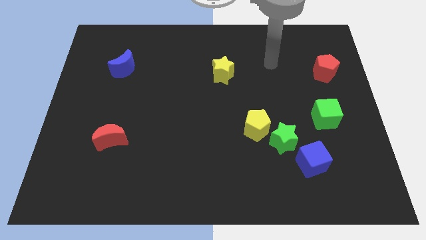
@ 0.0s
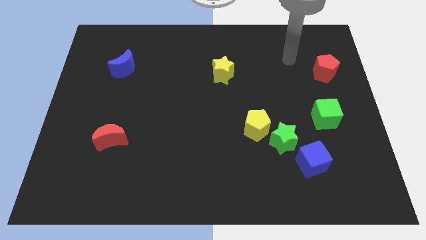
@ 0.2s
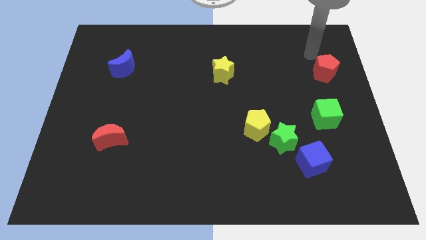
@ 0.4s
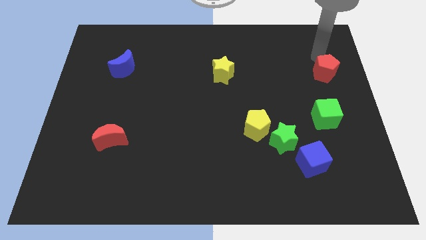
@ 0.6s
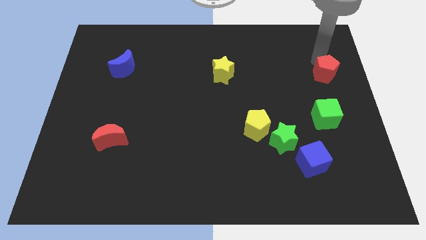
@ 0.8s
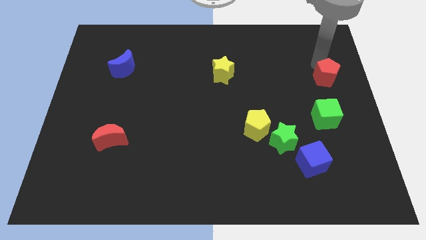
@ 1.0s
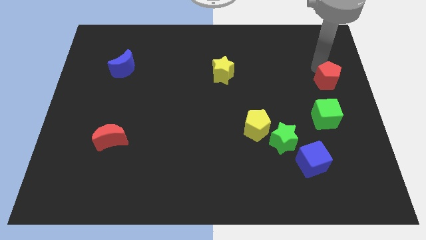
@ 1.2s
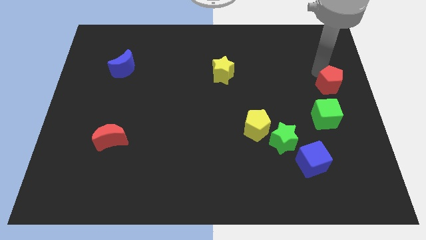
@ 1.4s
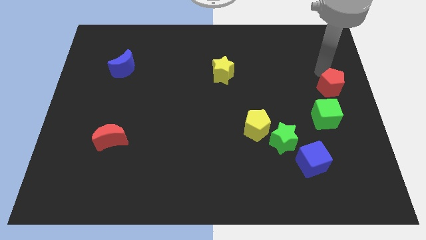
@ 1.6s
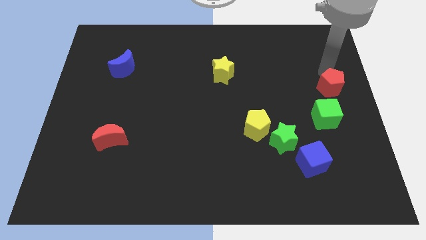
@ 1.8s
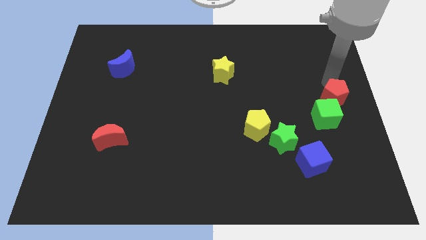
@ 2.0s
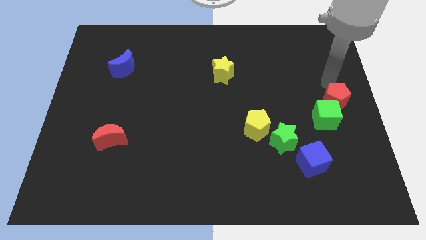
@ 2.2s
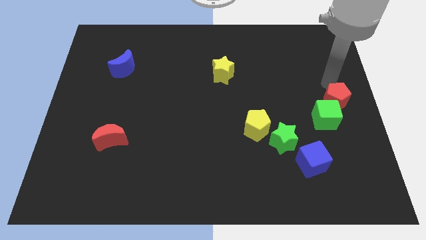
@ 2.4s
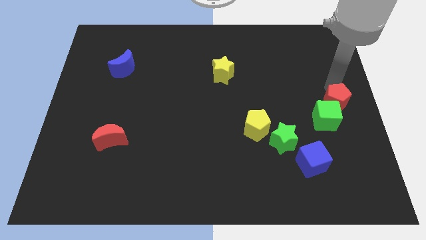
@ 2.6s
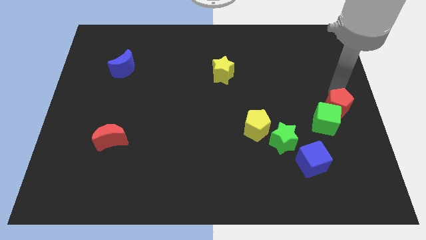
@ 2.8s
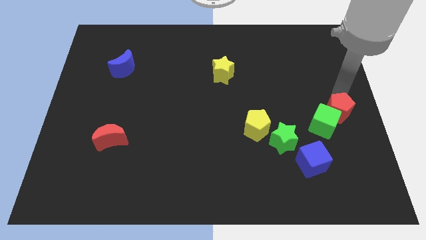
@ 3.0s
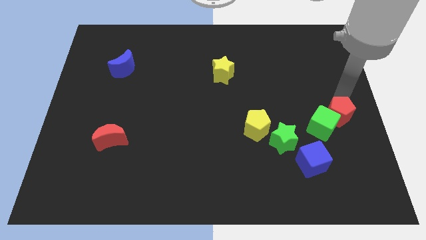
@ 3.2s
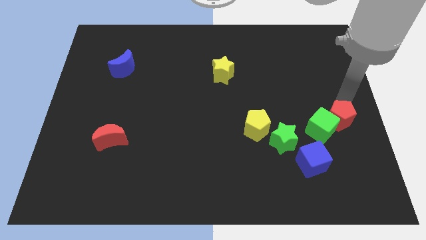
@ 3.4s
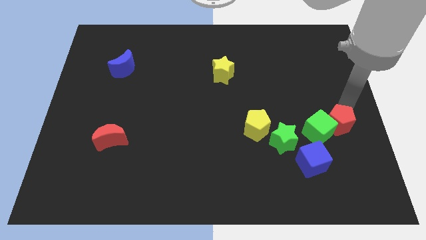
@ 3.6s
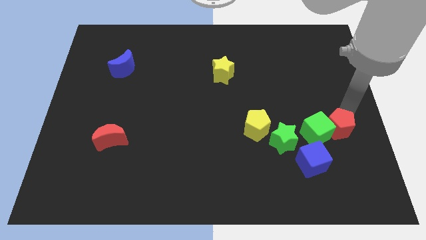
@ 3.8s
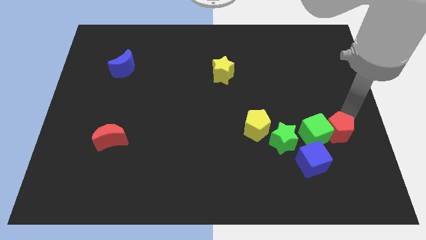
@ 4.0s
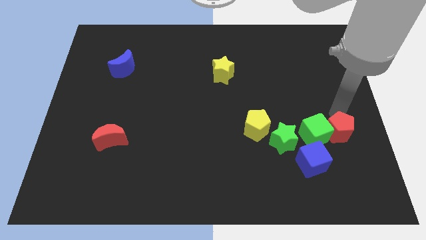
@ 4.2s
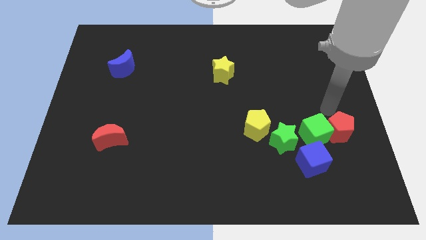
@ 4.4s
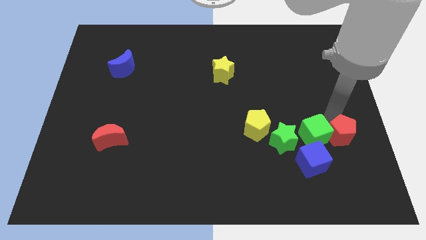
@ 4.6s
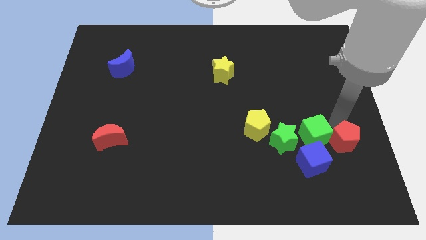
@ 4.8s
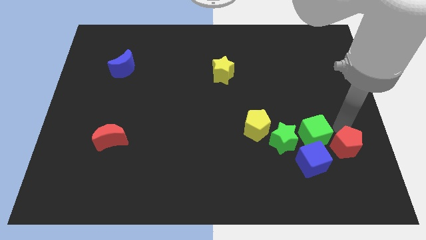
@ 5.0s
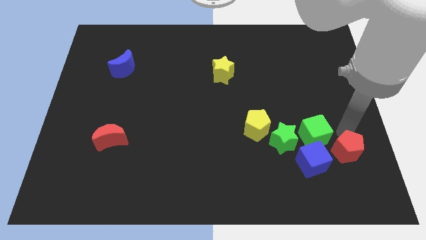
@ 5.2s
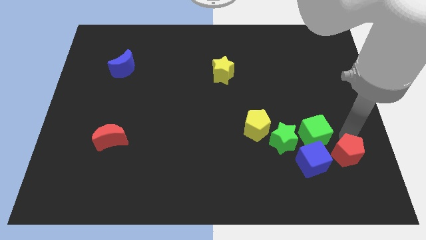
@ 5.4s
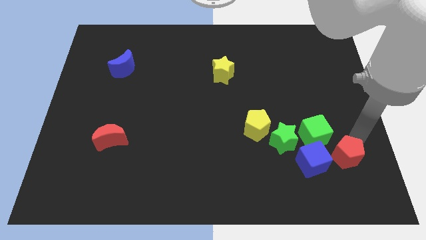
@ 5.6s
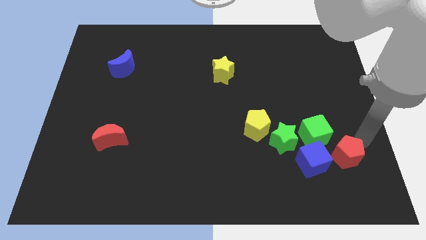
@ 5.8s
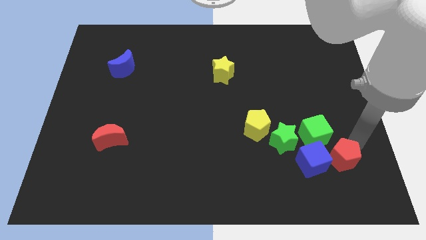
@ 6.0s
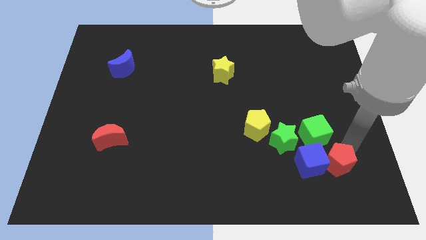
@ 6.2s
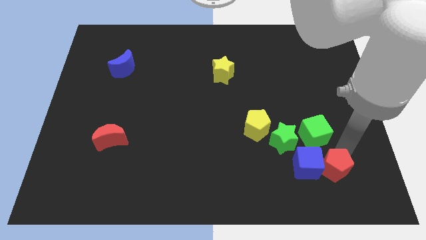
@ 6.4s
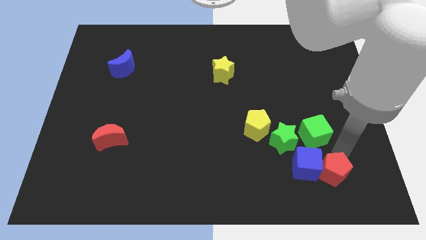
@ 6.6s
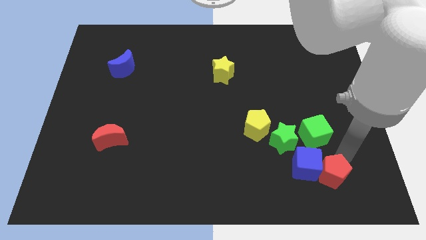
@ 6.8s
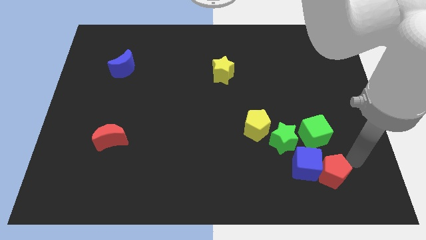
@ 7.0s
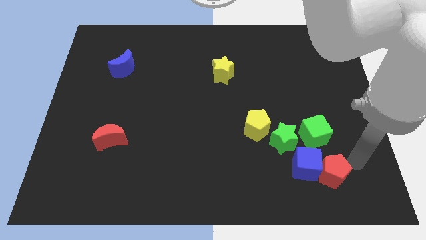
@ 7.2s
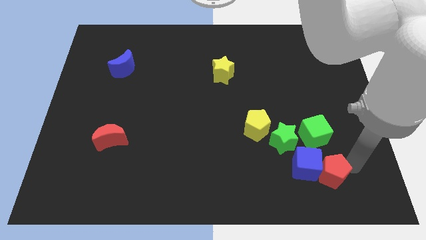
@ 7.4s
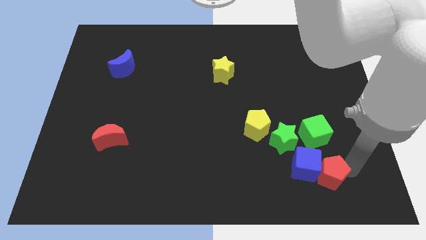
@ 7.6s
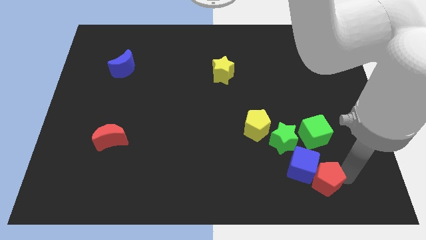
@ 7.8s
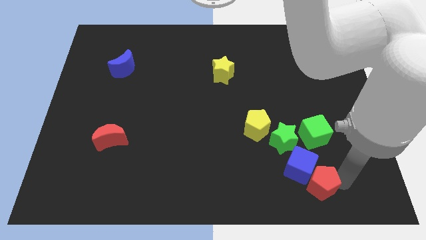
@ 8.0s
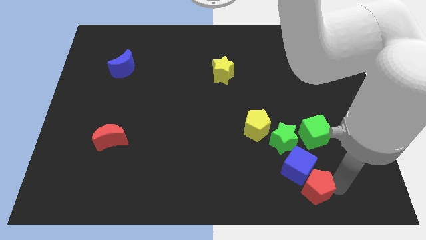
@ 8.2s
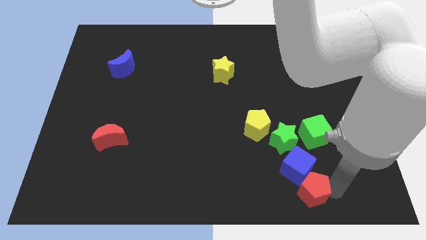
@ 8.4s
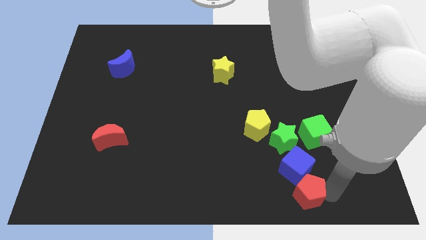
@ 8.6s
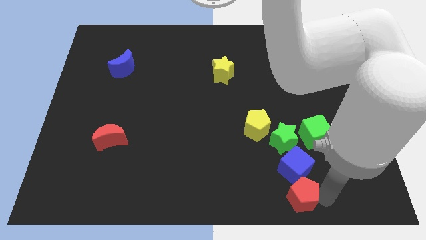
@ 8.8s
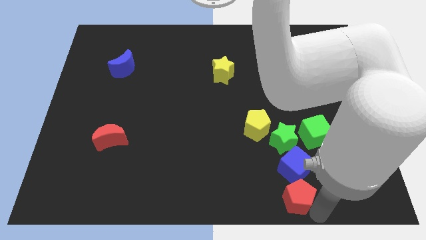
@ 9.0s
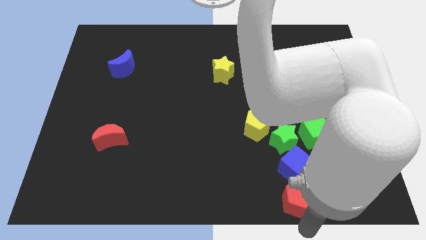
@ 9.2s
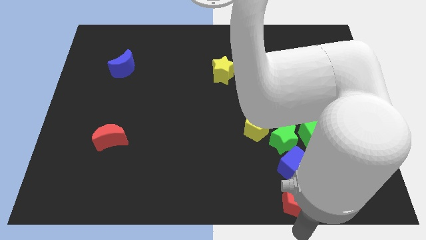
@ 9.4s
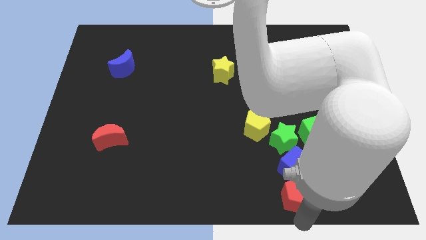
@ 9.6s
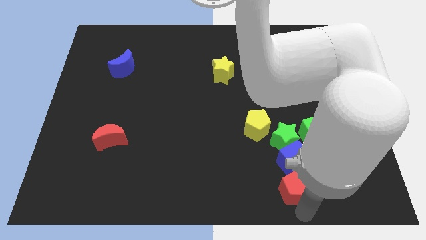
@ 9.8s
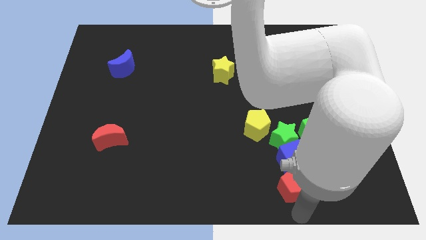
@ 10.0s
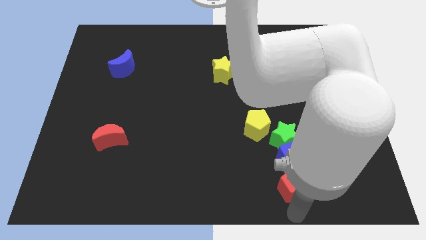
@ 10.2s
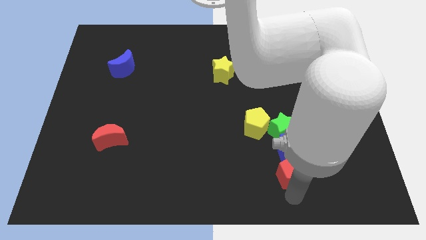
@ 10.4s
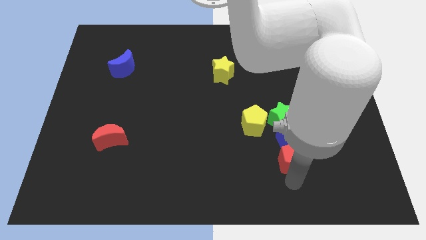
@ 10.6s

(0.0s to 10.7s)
slide the red pentagon to the bottom right of the yellow pentagon
